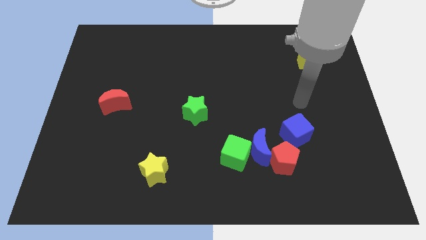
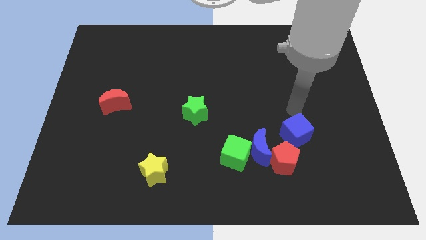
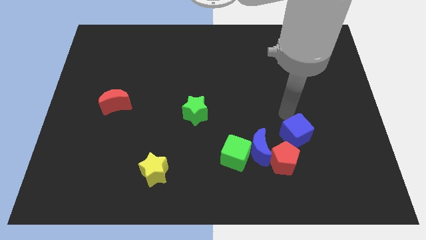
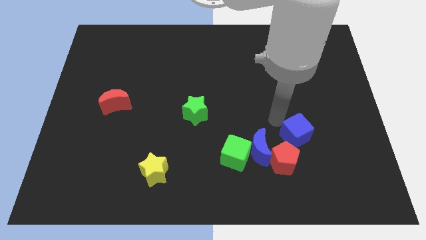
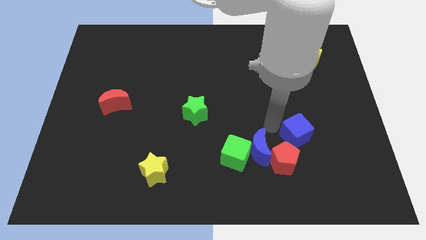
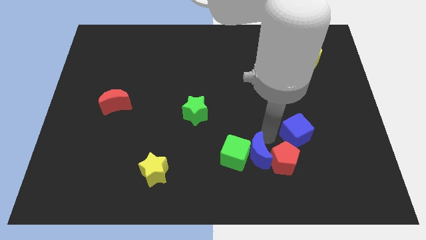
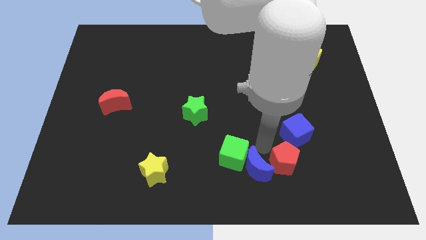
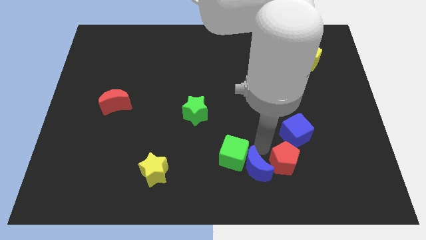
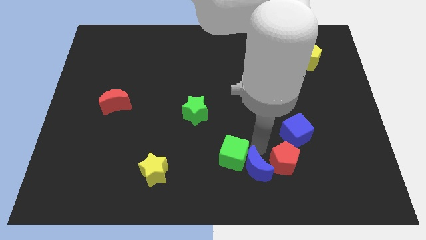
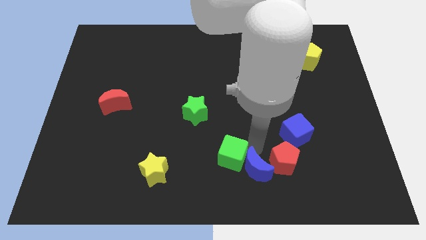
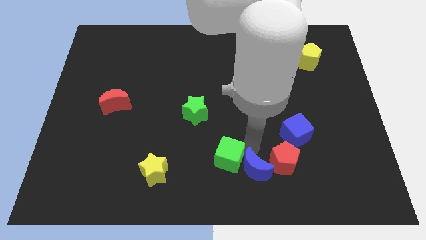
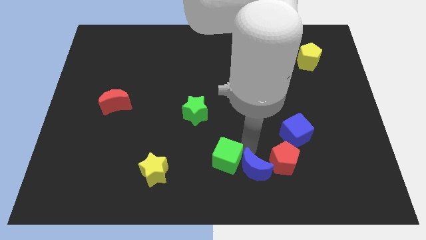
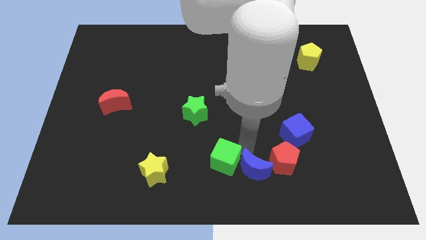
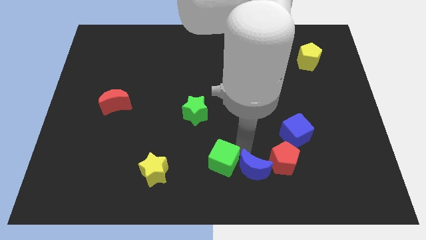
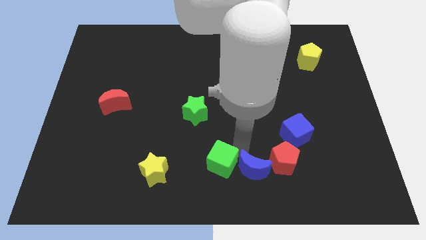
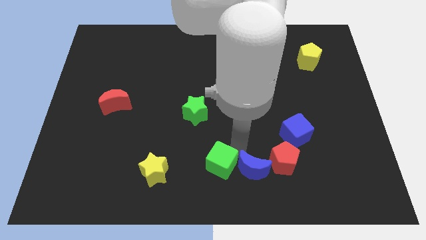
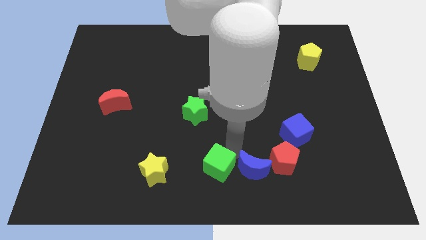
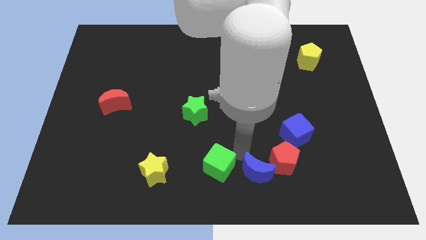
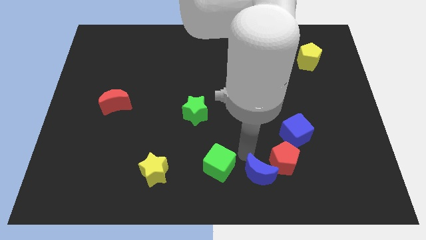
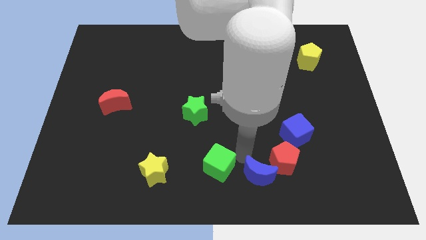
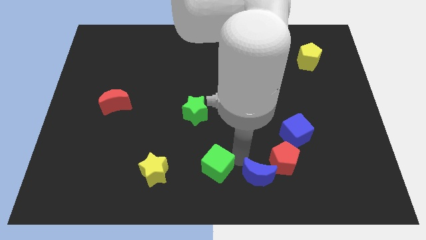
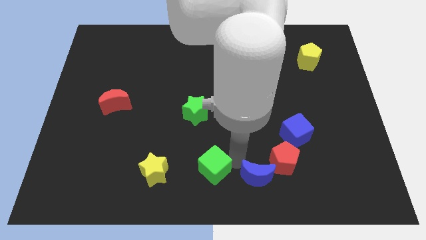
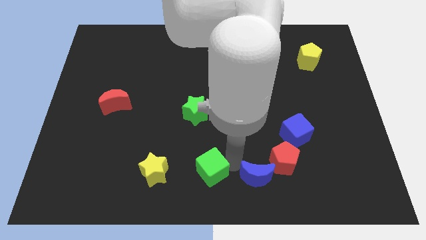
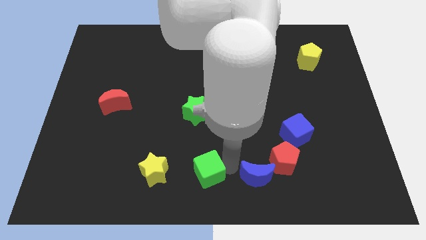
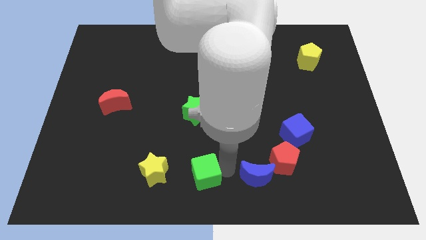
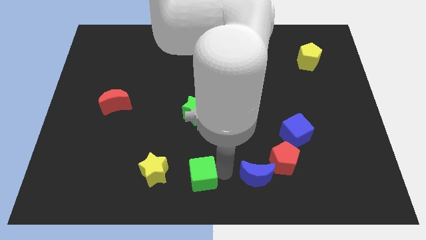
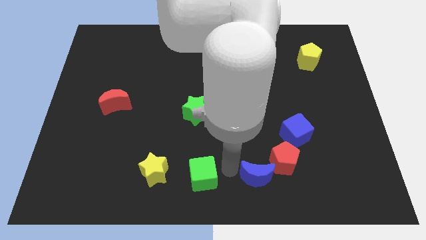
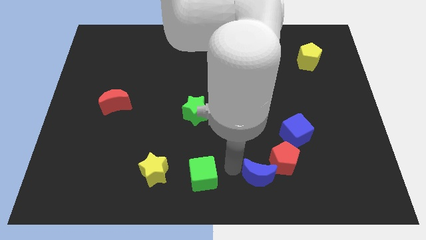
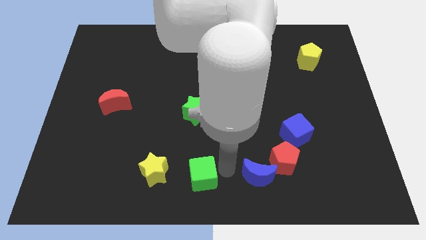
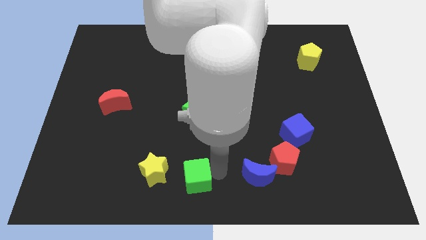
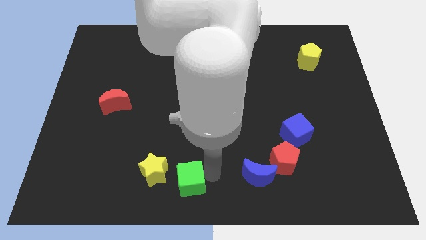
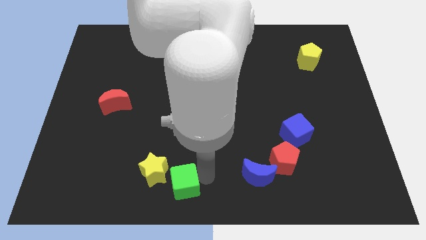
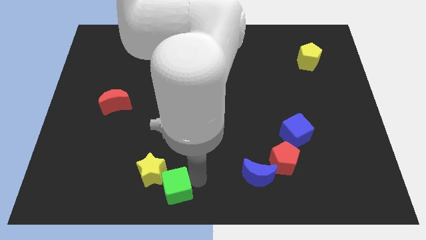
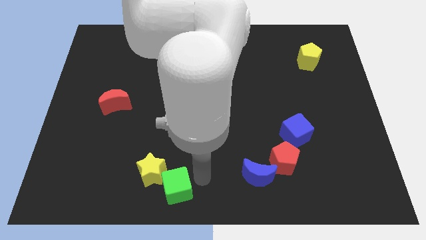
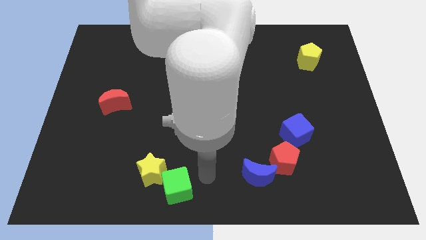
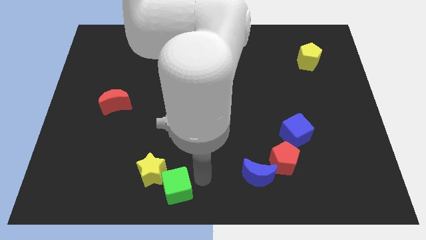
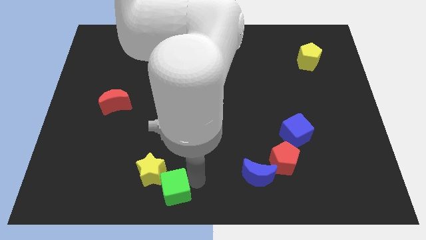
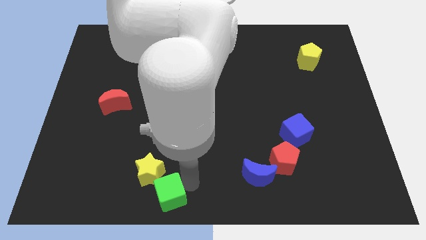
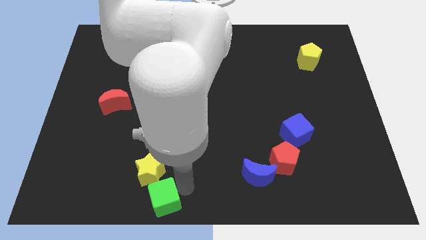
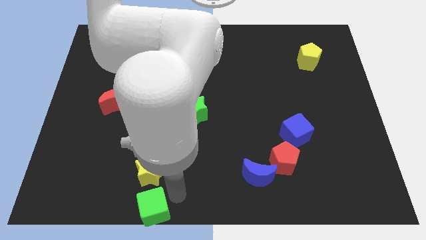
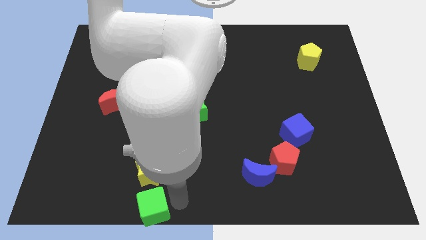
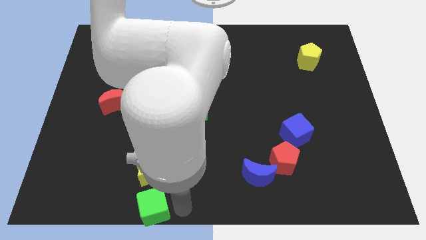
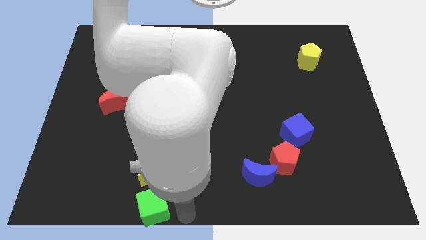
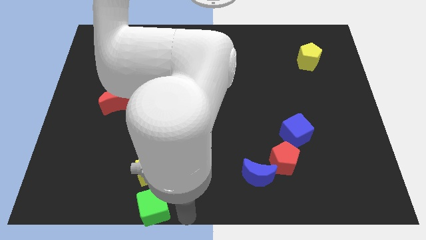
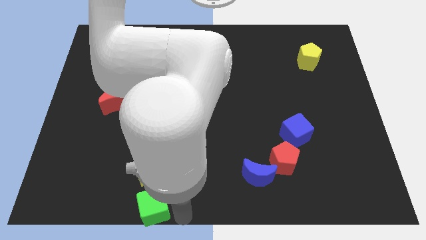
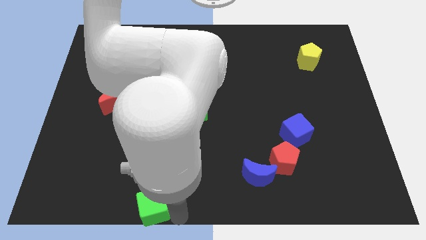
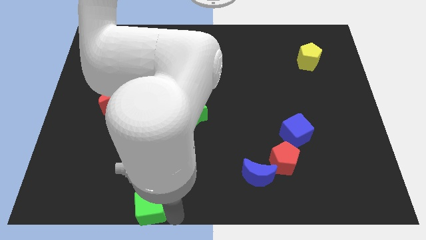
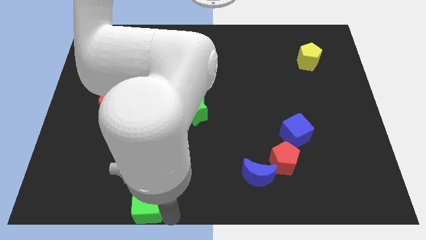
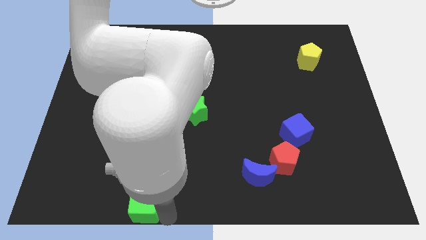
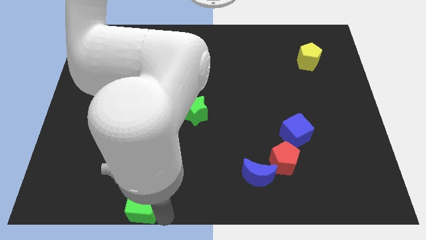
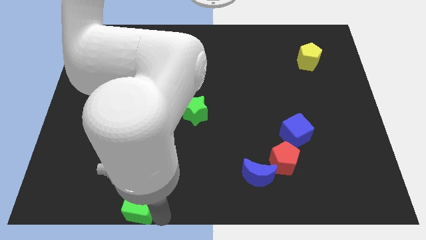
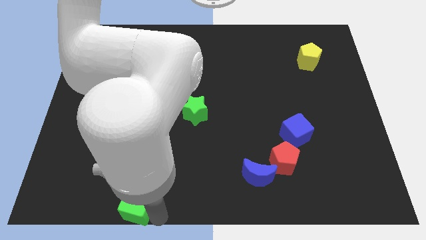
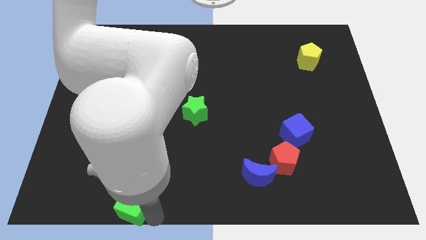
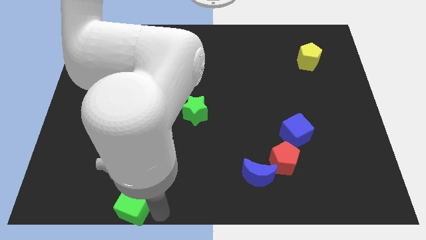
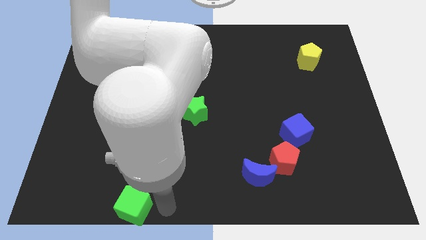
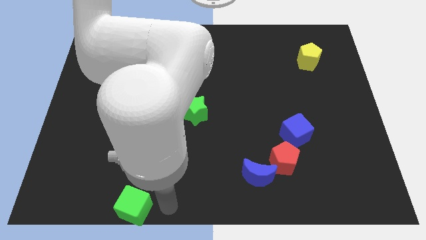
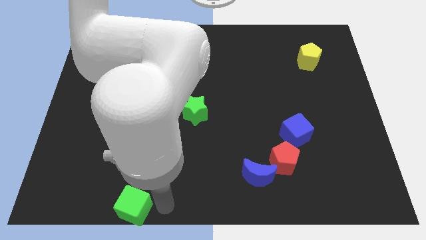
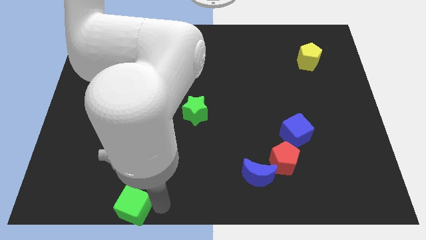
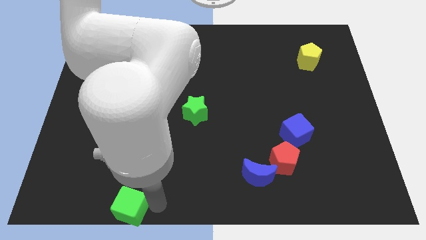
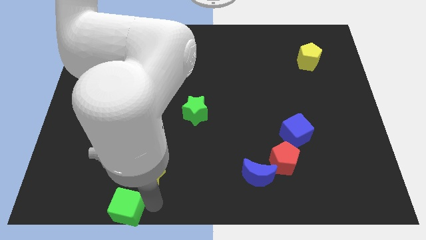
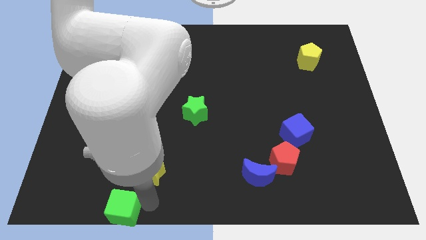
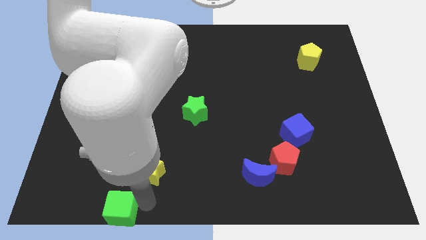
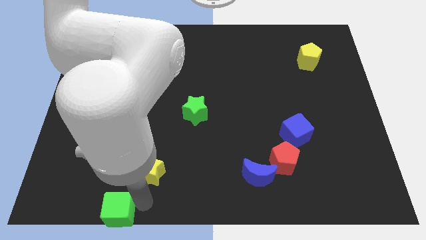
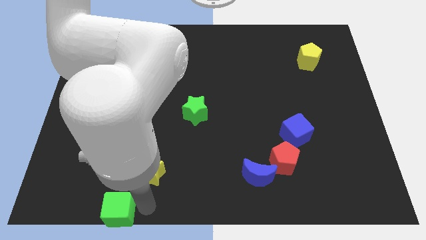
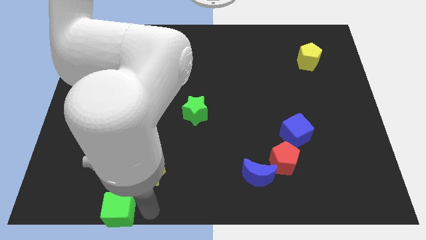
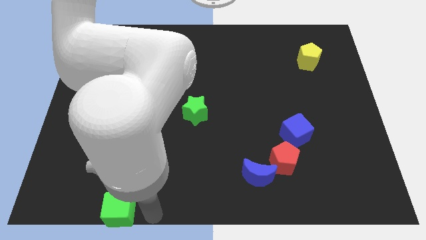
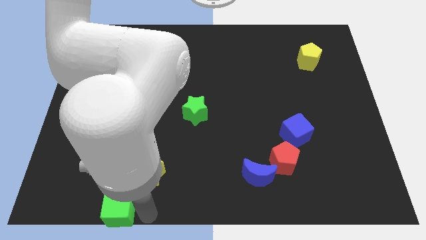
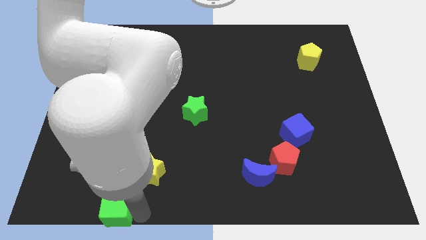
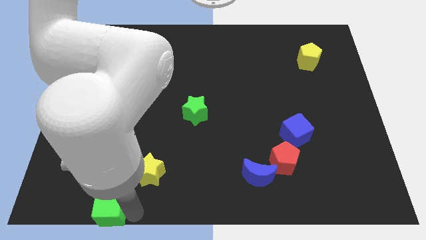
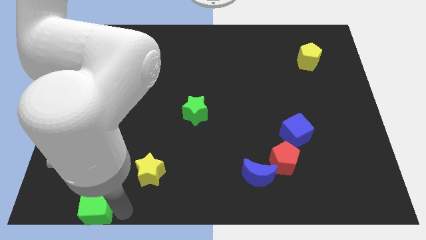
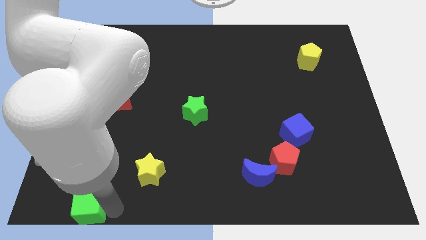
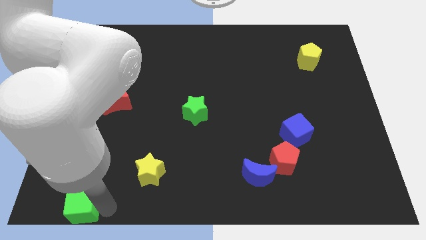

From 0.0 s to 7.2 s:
push the green cube to the lower left corner
